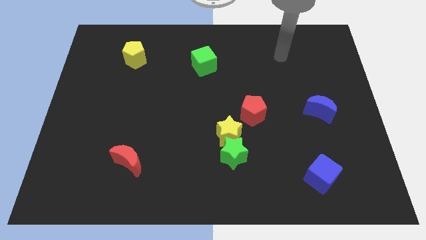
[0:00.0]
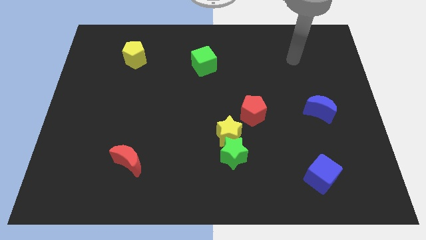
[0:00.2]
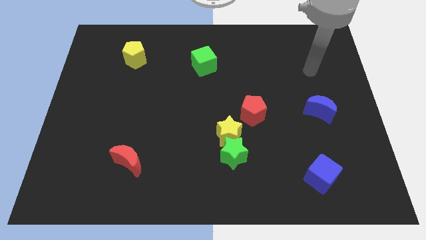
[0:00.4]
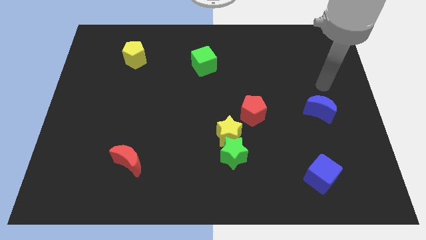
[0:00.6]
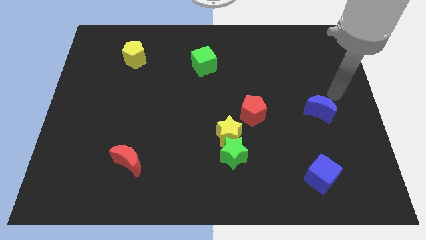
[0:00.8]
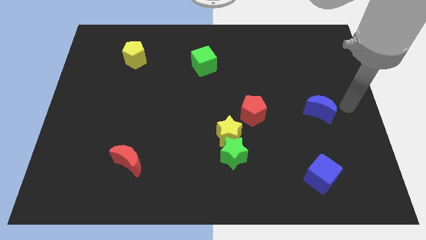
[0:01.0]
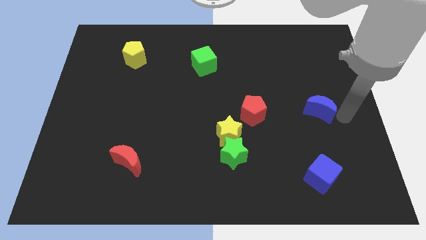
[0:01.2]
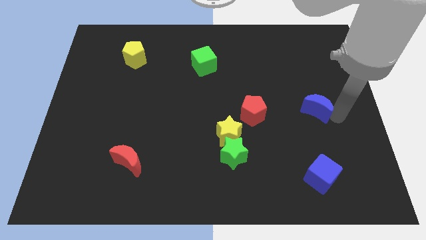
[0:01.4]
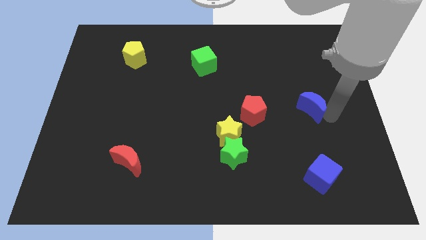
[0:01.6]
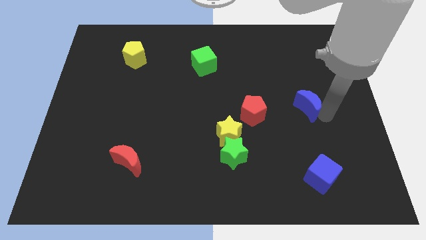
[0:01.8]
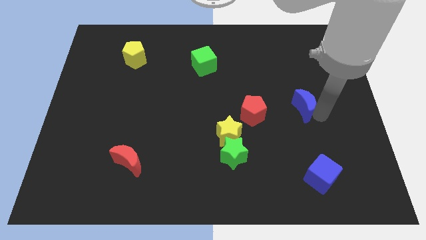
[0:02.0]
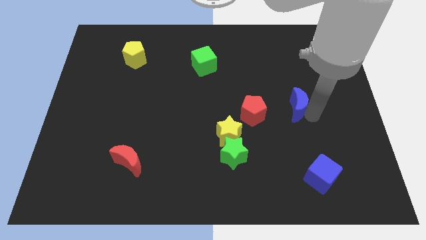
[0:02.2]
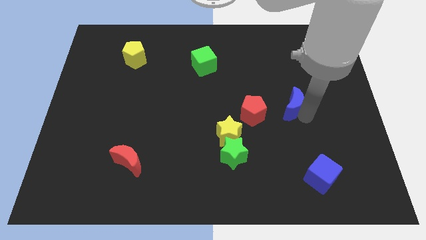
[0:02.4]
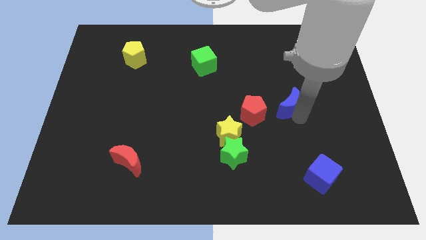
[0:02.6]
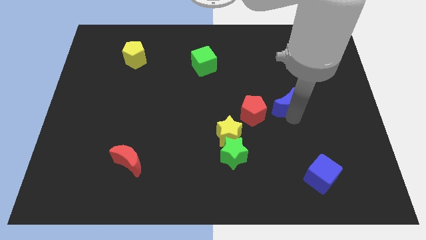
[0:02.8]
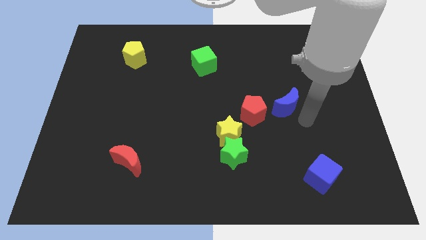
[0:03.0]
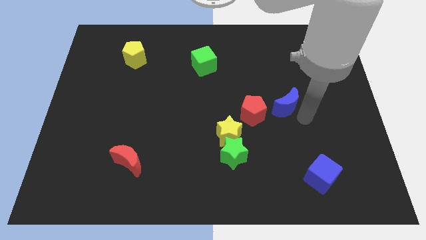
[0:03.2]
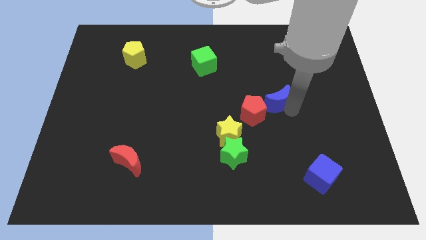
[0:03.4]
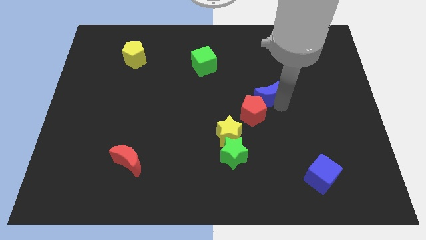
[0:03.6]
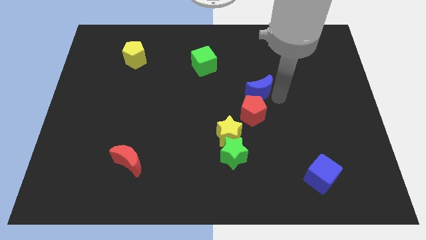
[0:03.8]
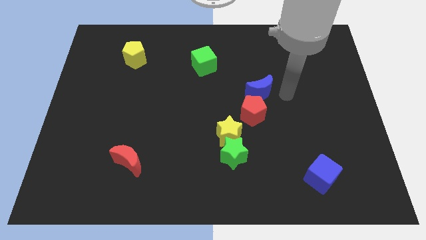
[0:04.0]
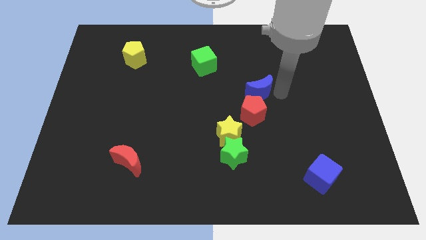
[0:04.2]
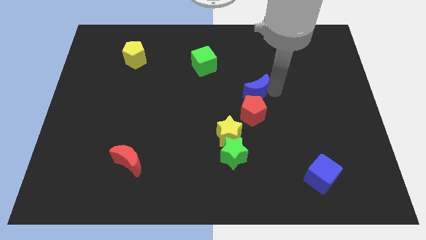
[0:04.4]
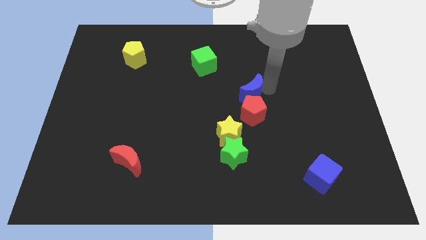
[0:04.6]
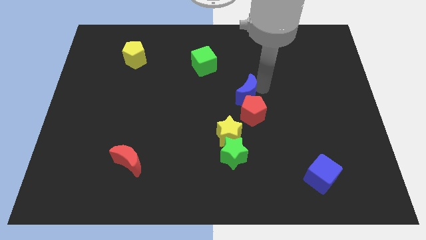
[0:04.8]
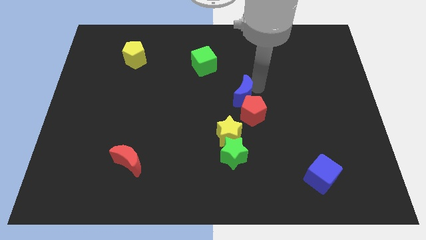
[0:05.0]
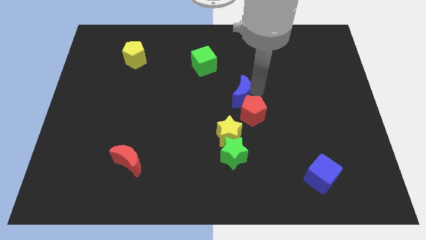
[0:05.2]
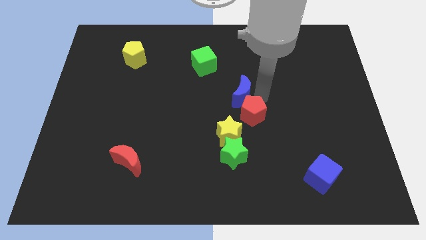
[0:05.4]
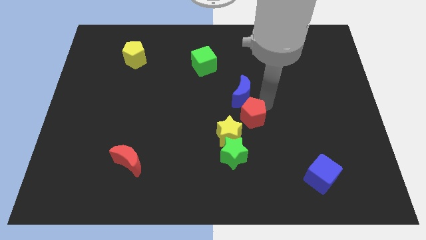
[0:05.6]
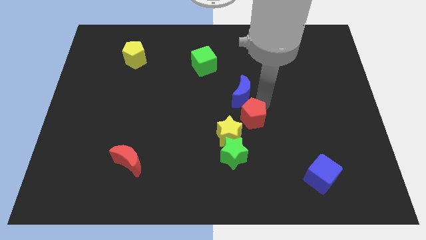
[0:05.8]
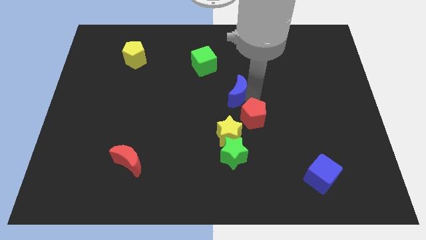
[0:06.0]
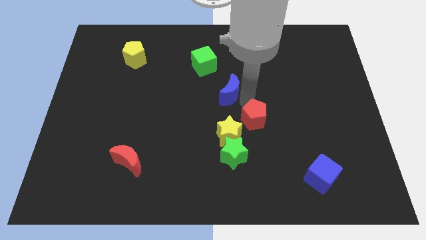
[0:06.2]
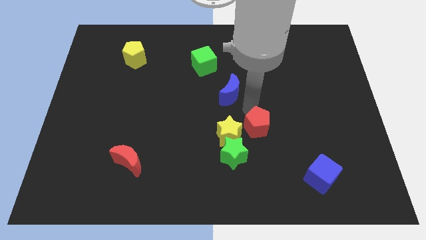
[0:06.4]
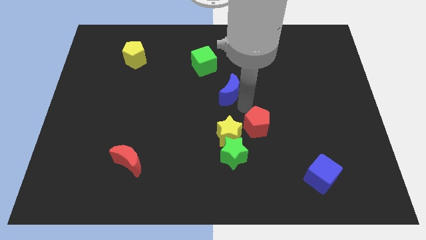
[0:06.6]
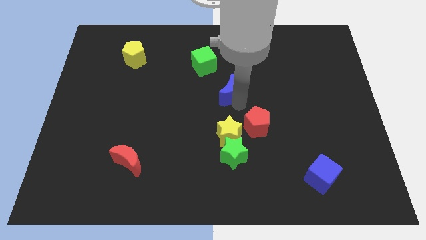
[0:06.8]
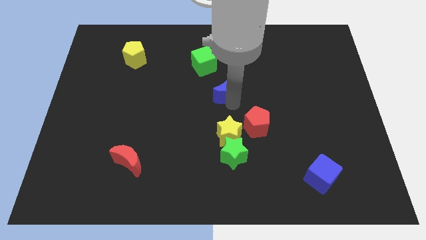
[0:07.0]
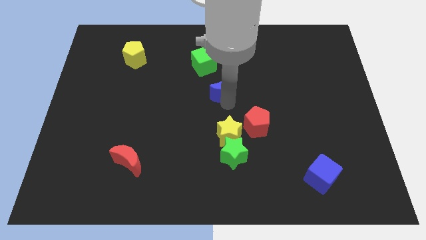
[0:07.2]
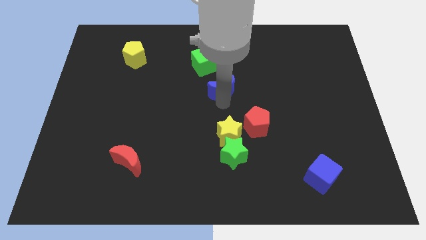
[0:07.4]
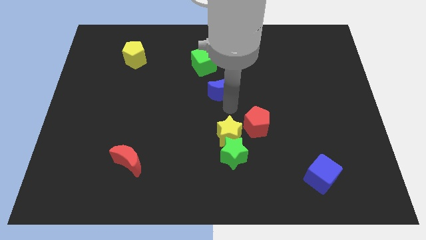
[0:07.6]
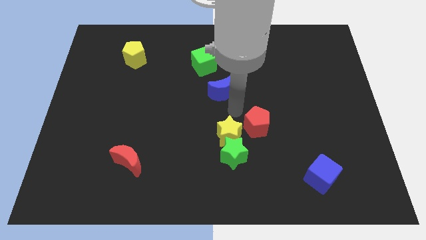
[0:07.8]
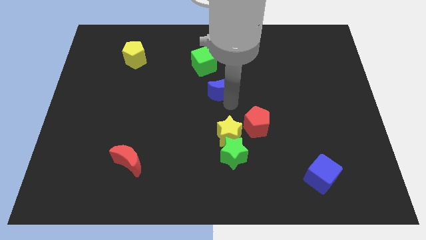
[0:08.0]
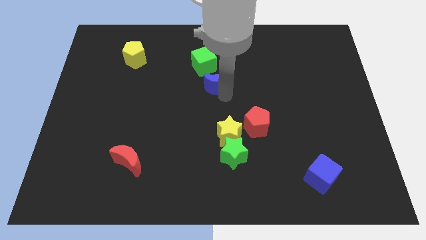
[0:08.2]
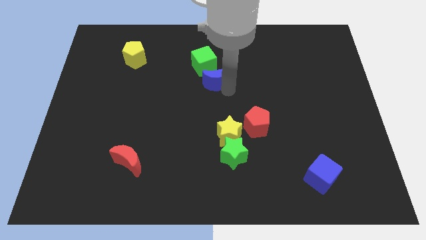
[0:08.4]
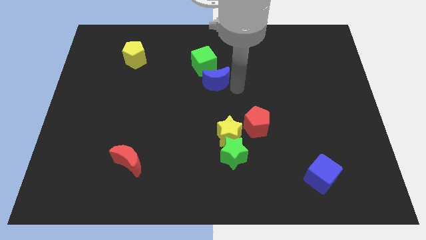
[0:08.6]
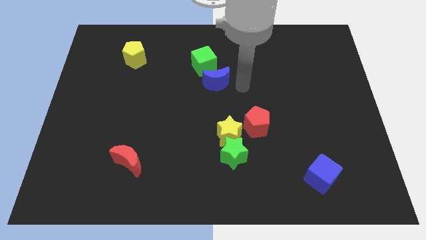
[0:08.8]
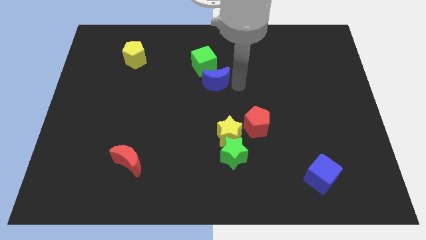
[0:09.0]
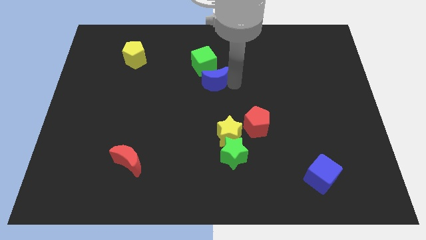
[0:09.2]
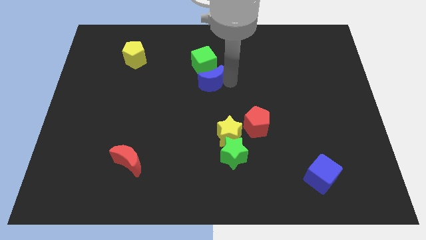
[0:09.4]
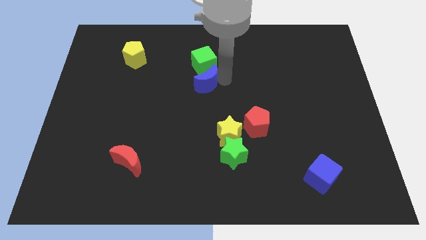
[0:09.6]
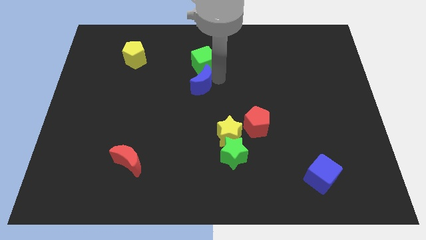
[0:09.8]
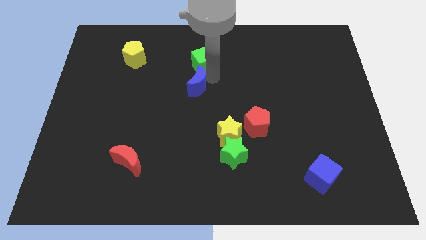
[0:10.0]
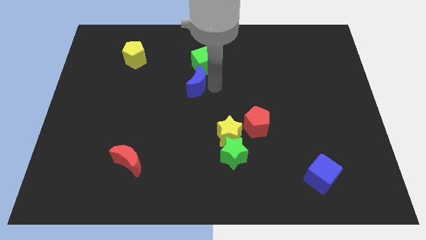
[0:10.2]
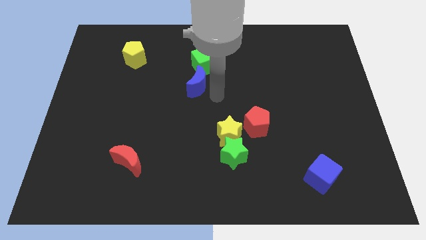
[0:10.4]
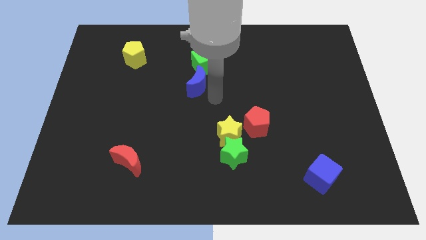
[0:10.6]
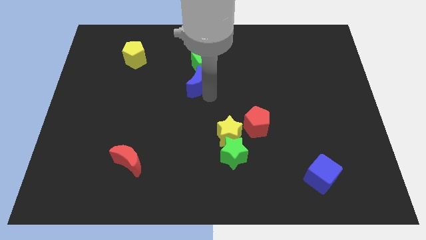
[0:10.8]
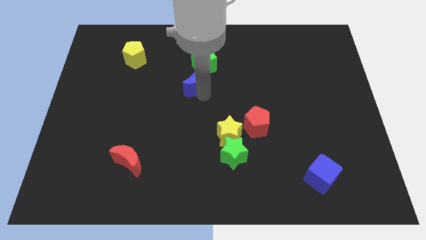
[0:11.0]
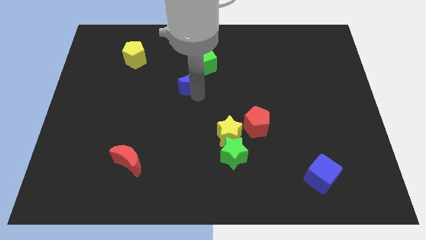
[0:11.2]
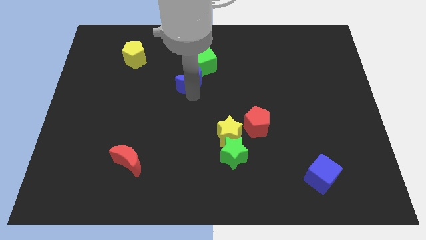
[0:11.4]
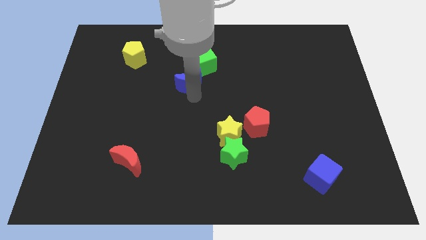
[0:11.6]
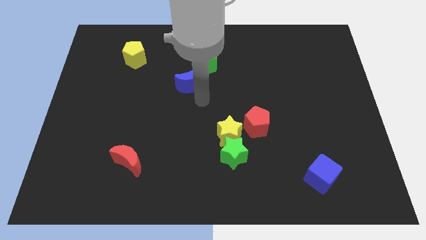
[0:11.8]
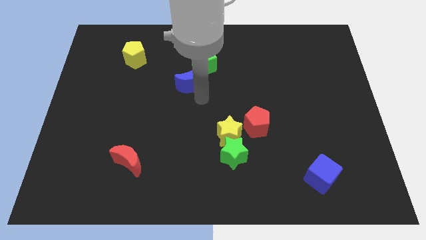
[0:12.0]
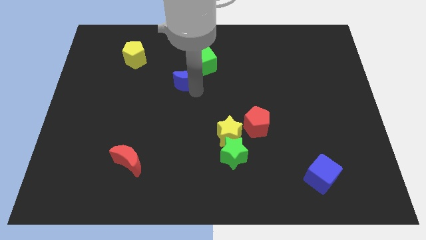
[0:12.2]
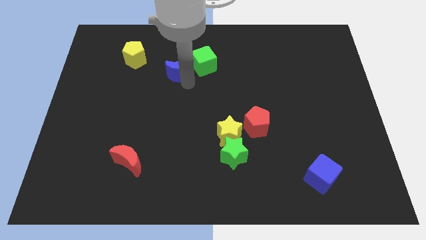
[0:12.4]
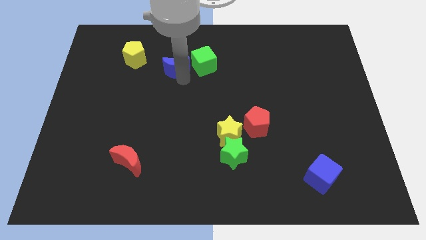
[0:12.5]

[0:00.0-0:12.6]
slide the blue moon to the right side of the yellow pentagon

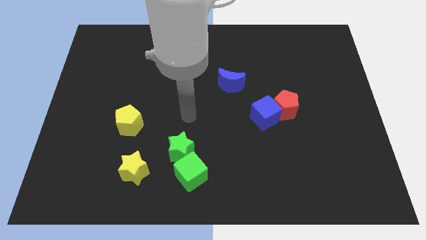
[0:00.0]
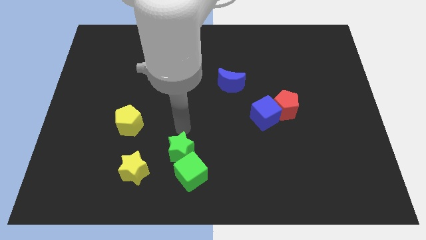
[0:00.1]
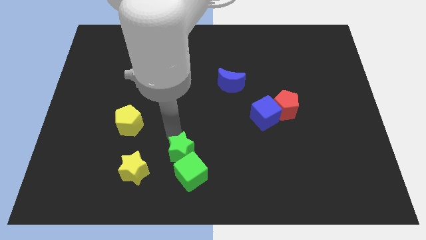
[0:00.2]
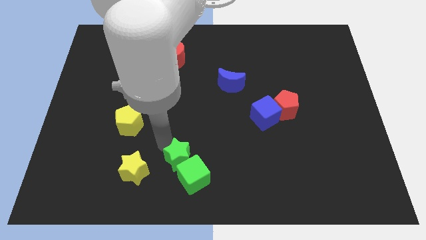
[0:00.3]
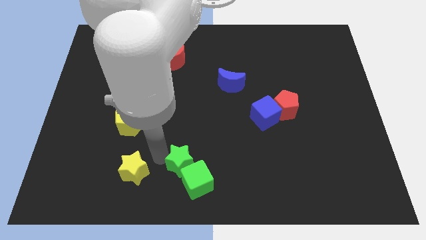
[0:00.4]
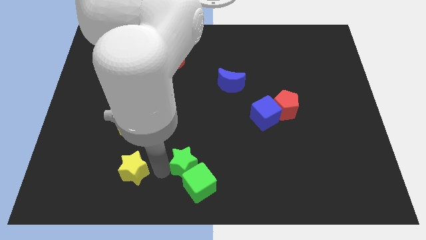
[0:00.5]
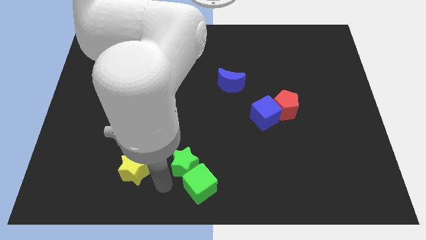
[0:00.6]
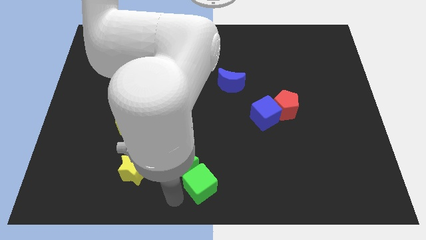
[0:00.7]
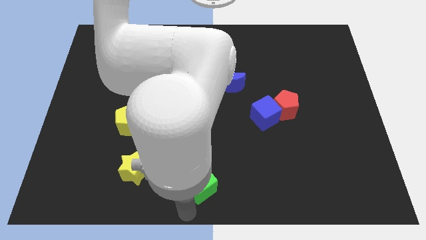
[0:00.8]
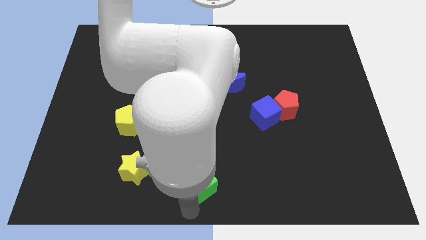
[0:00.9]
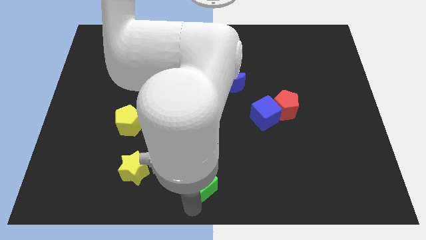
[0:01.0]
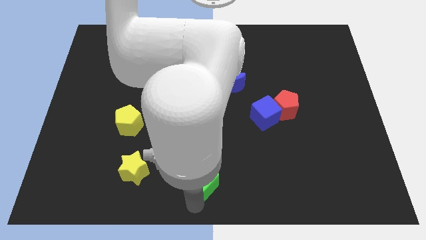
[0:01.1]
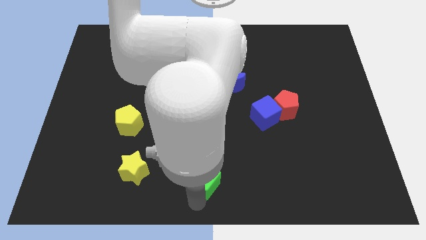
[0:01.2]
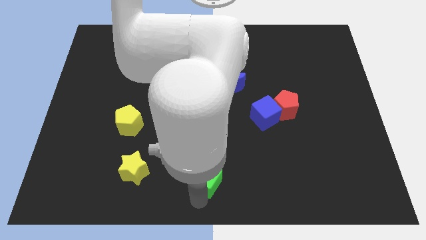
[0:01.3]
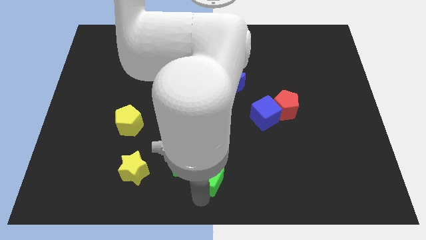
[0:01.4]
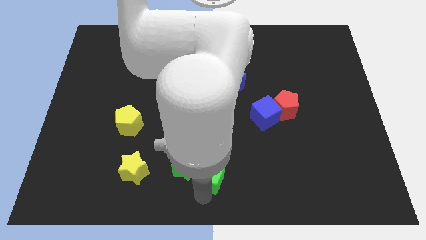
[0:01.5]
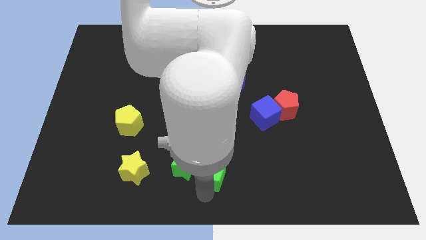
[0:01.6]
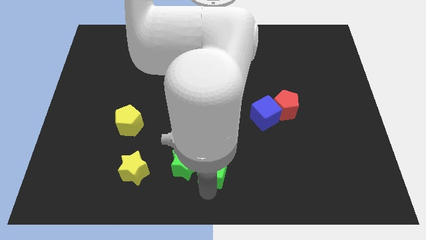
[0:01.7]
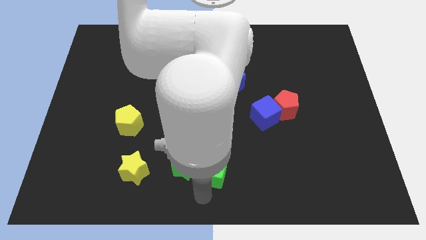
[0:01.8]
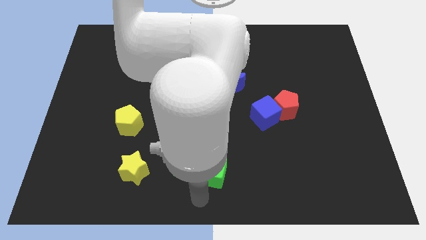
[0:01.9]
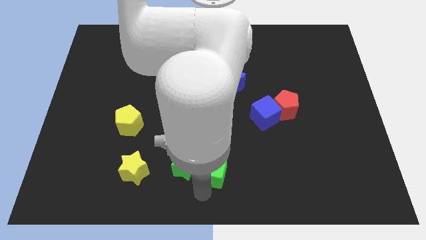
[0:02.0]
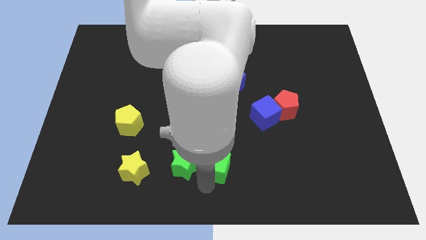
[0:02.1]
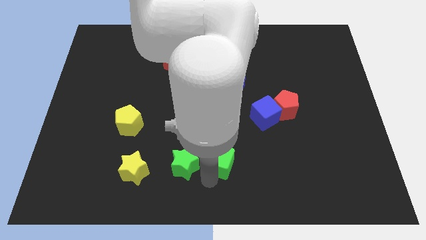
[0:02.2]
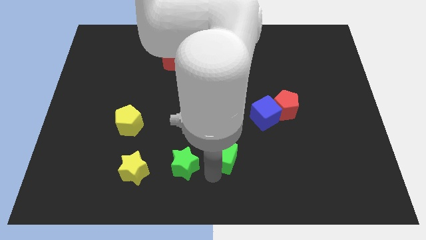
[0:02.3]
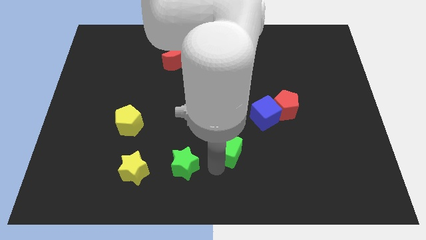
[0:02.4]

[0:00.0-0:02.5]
slide the green cube diagonally down and to the left of the blue cube
